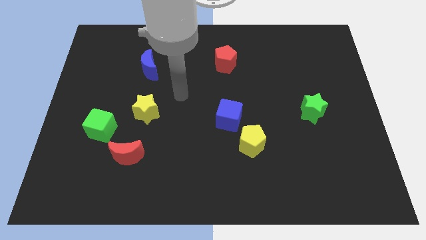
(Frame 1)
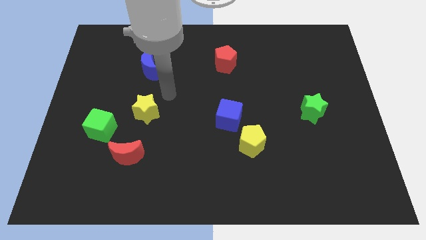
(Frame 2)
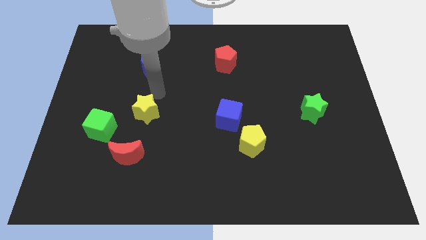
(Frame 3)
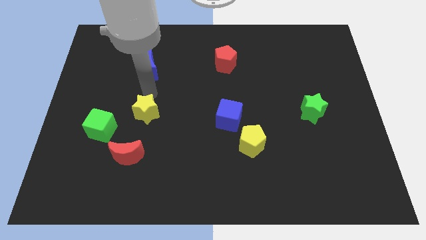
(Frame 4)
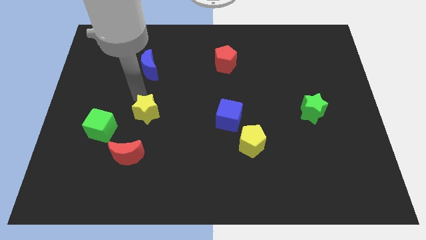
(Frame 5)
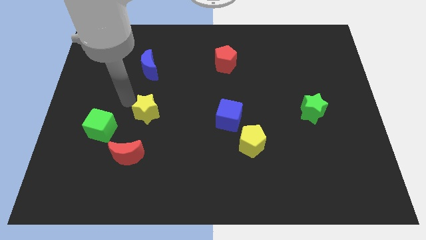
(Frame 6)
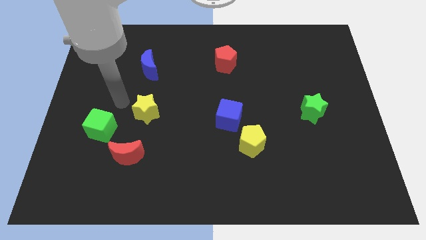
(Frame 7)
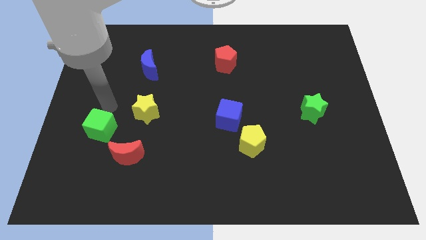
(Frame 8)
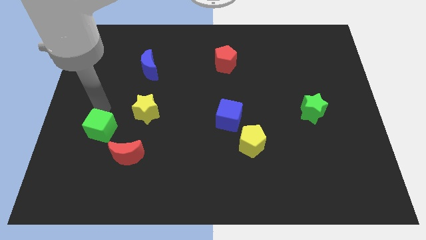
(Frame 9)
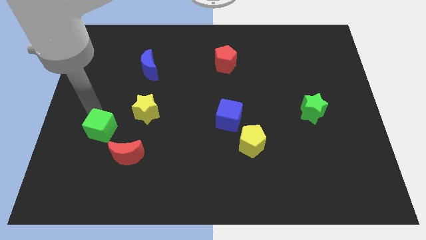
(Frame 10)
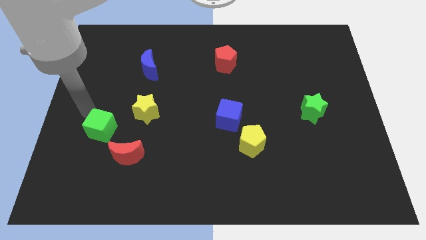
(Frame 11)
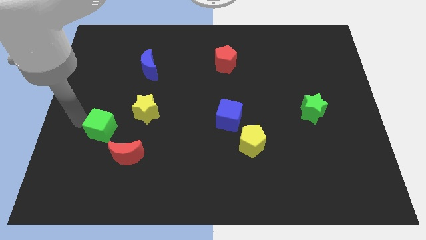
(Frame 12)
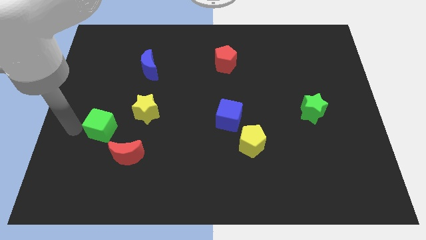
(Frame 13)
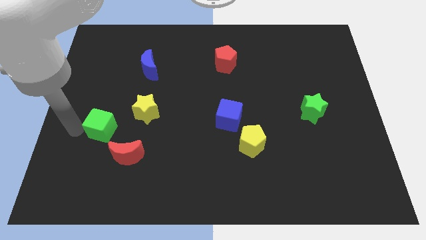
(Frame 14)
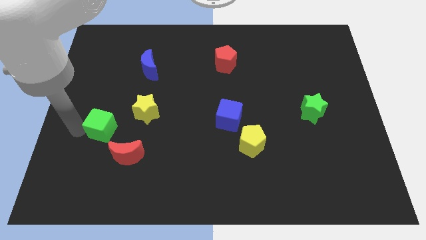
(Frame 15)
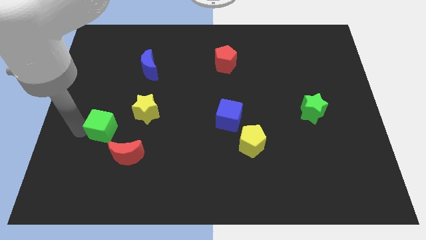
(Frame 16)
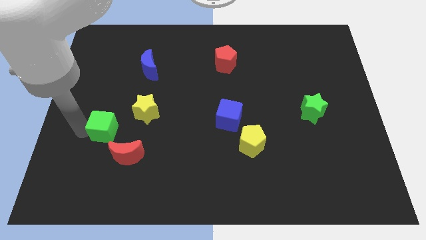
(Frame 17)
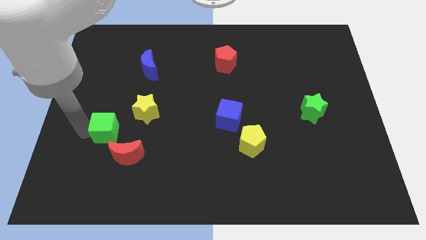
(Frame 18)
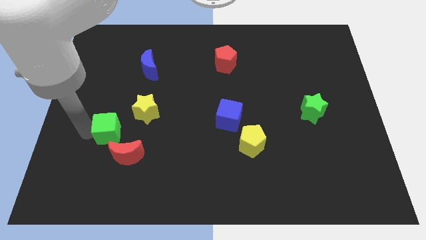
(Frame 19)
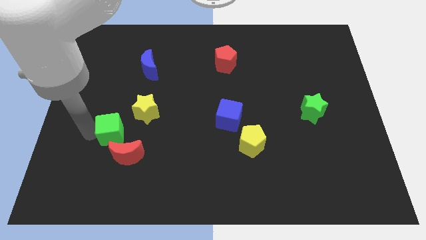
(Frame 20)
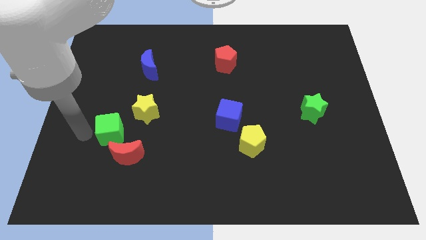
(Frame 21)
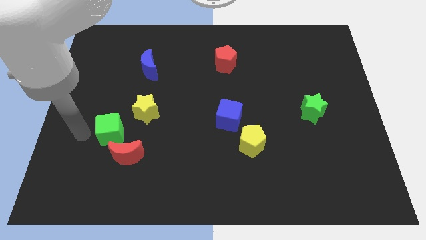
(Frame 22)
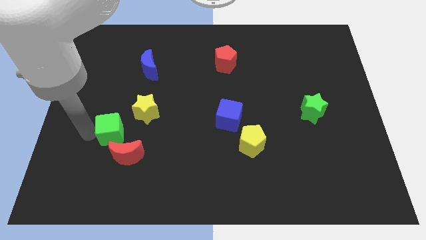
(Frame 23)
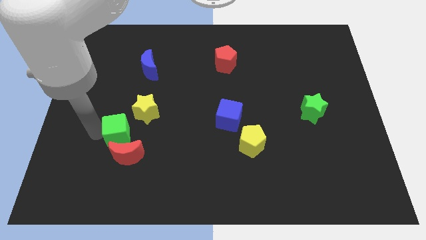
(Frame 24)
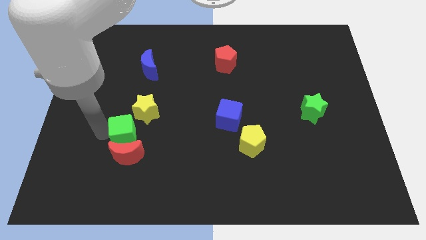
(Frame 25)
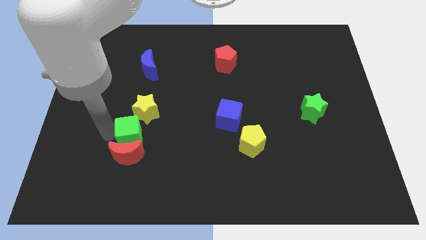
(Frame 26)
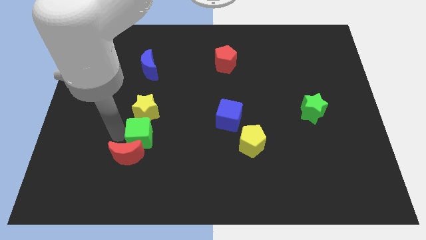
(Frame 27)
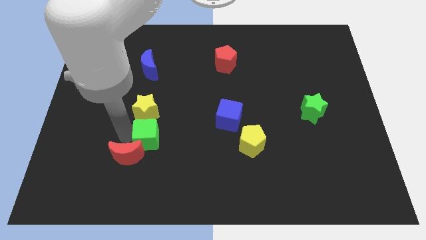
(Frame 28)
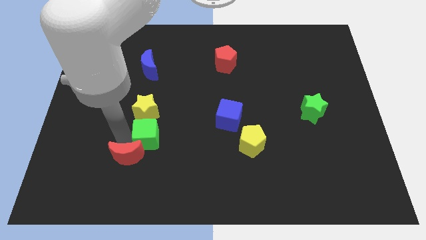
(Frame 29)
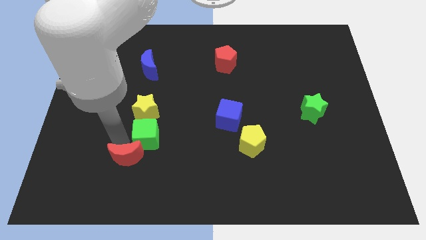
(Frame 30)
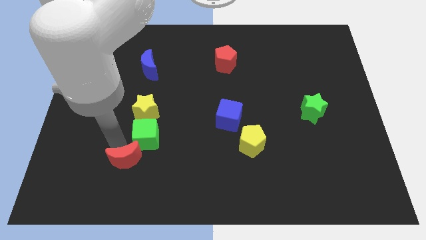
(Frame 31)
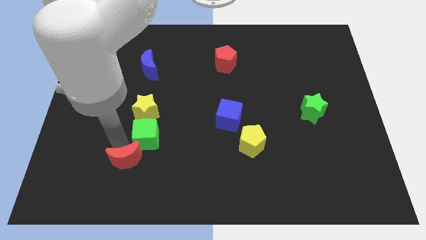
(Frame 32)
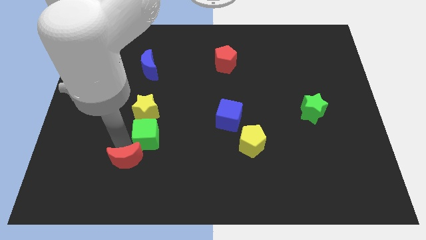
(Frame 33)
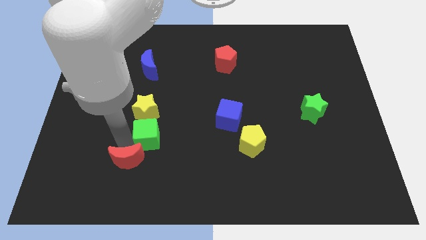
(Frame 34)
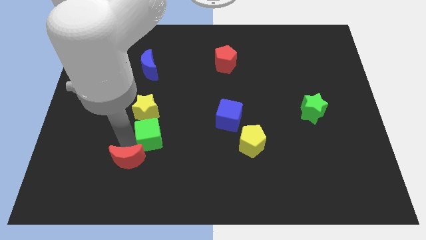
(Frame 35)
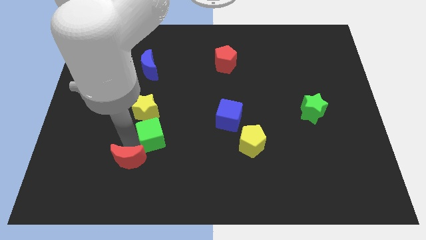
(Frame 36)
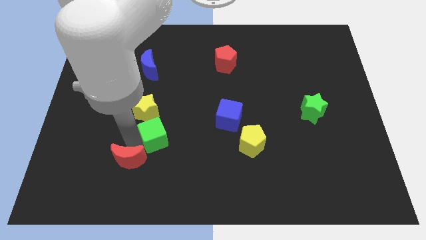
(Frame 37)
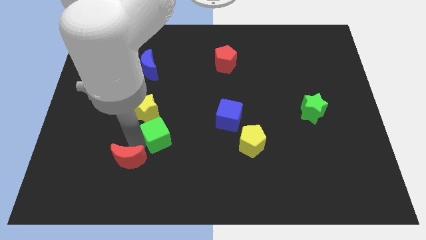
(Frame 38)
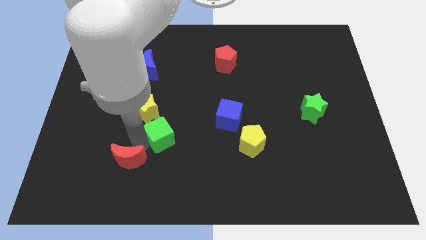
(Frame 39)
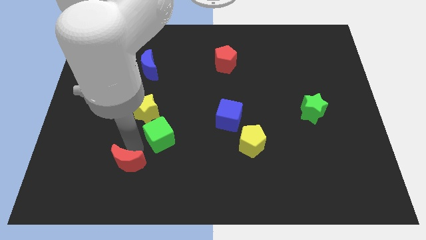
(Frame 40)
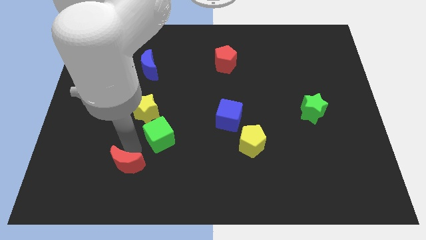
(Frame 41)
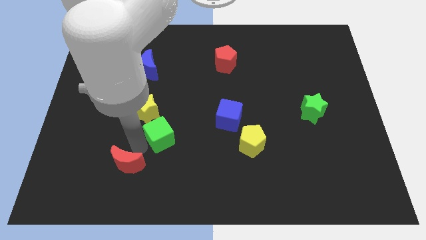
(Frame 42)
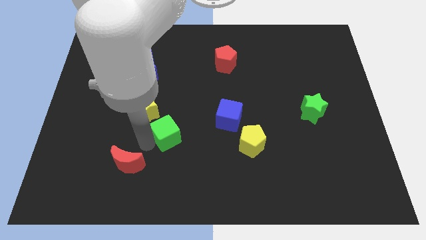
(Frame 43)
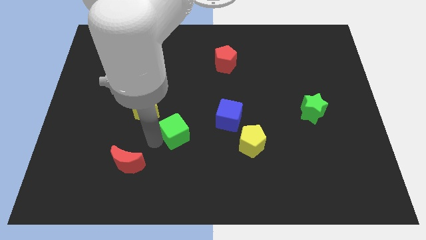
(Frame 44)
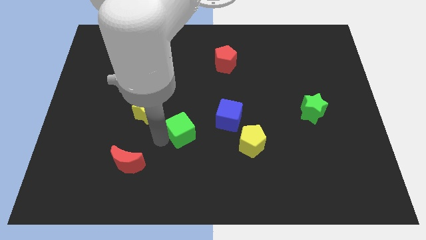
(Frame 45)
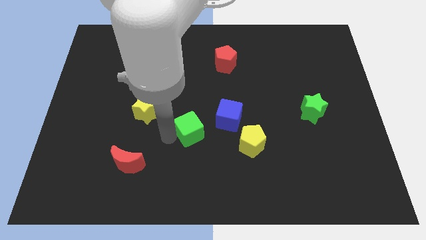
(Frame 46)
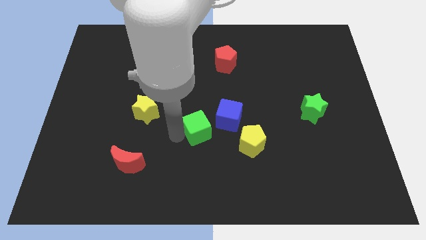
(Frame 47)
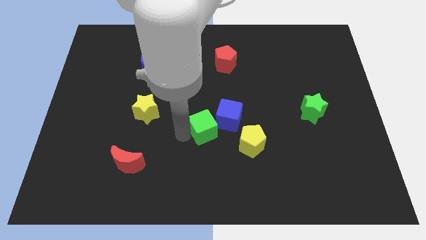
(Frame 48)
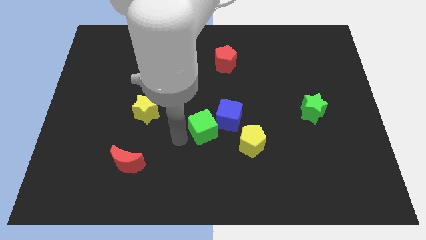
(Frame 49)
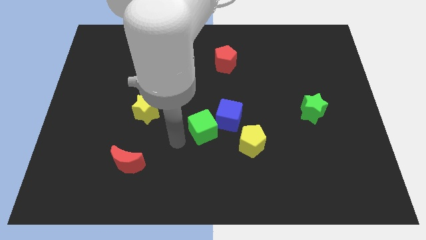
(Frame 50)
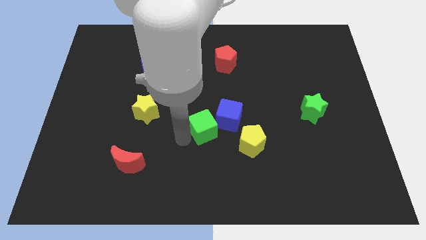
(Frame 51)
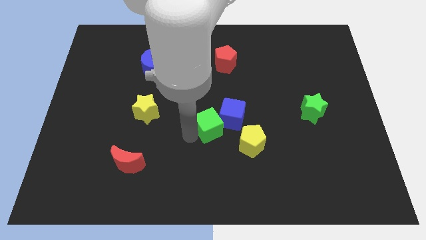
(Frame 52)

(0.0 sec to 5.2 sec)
put the green cube towards the blue cube

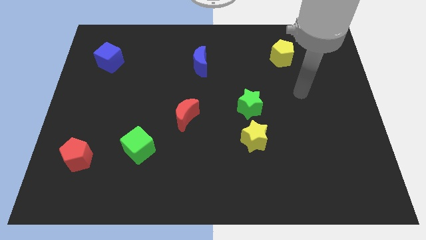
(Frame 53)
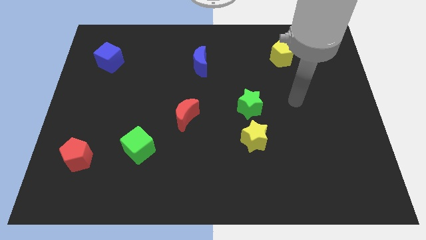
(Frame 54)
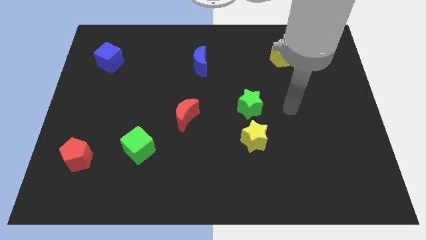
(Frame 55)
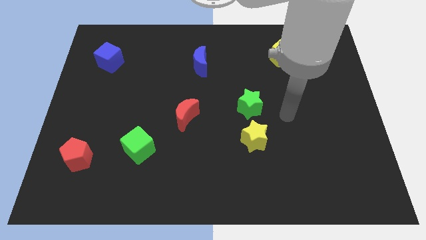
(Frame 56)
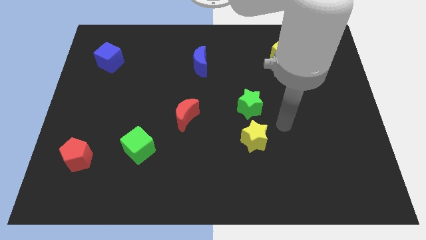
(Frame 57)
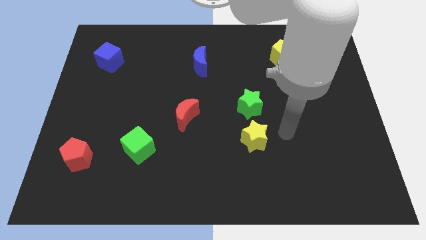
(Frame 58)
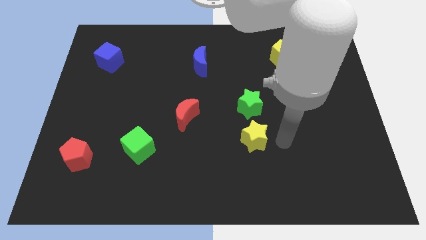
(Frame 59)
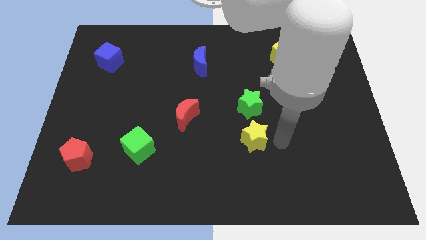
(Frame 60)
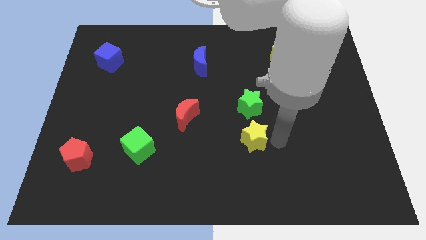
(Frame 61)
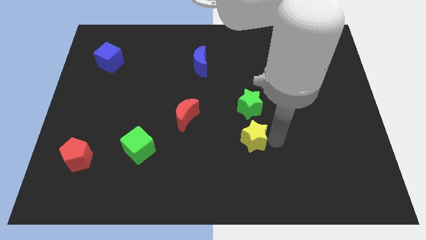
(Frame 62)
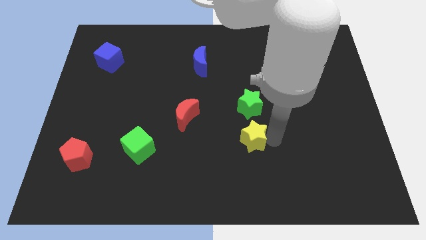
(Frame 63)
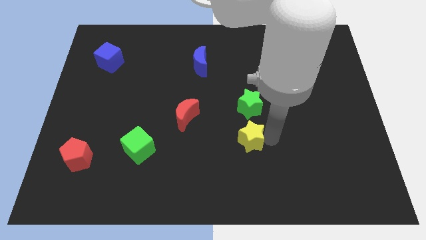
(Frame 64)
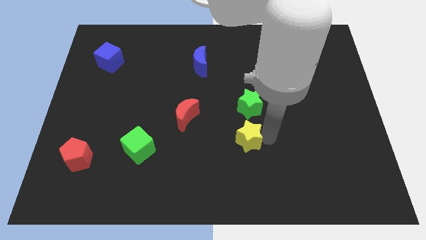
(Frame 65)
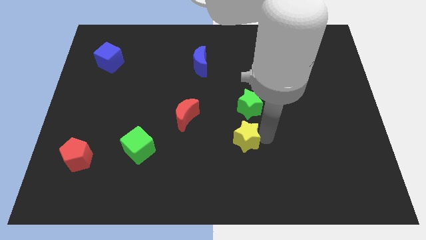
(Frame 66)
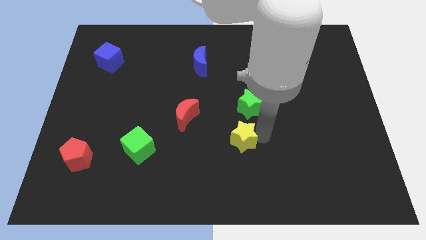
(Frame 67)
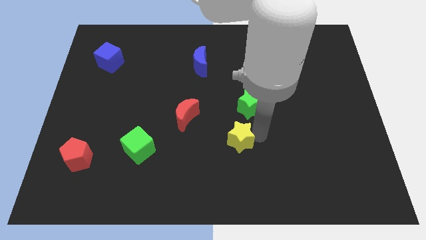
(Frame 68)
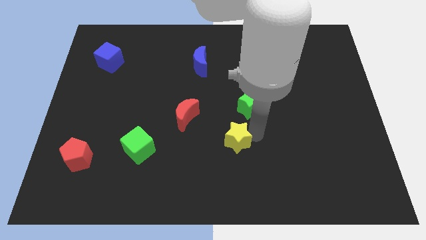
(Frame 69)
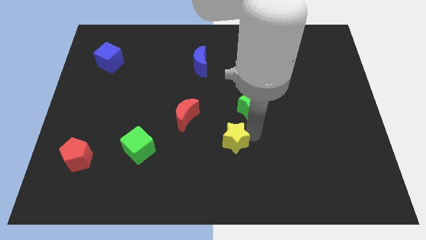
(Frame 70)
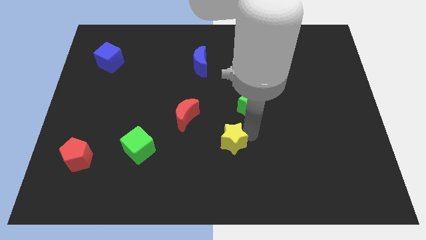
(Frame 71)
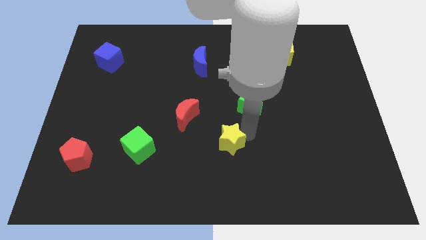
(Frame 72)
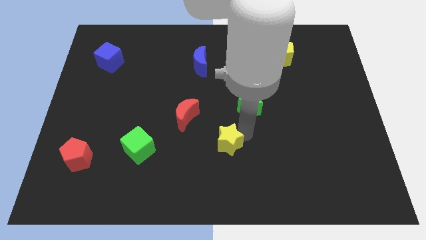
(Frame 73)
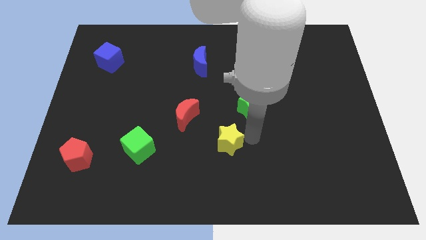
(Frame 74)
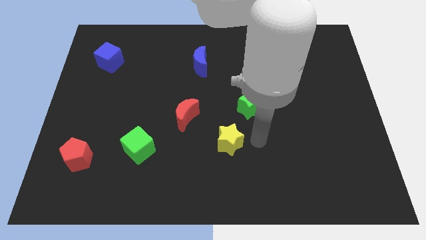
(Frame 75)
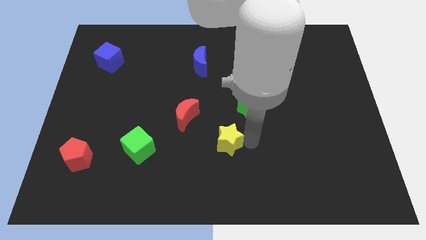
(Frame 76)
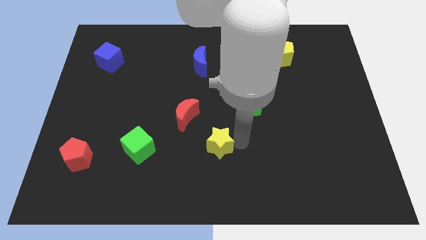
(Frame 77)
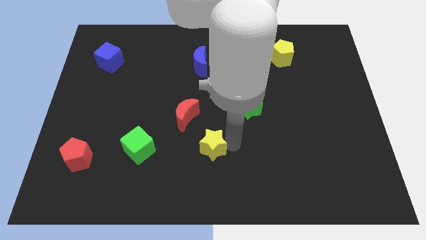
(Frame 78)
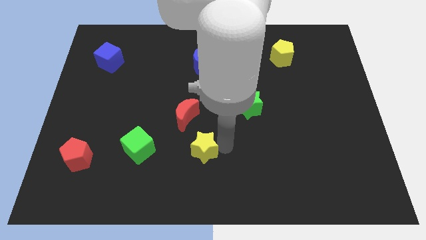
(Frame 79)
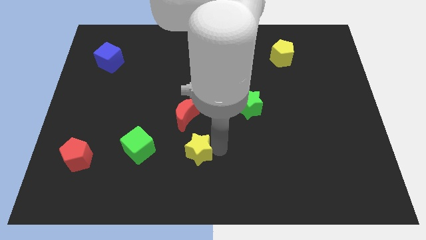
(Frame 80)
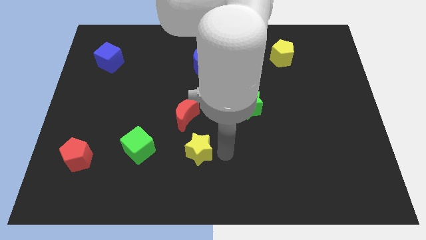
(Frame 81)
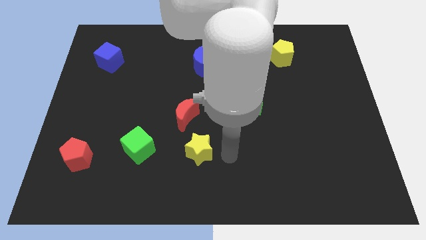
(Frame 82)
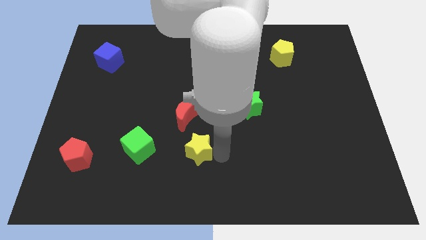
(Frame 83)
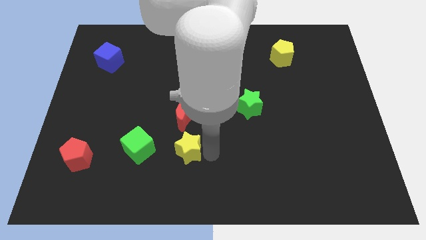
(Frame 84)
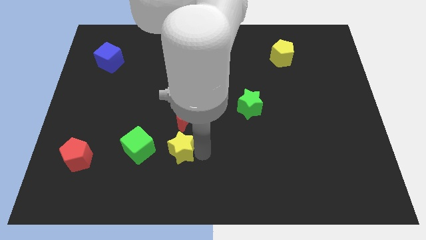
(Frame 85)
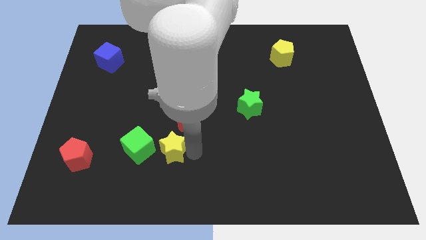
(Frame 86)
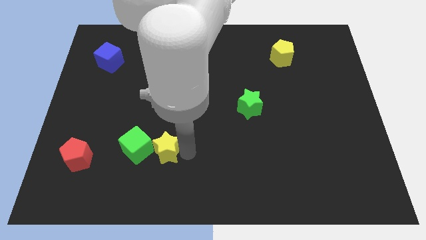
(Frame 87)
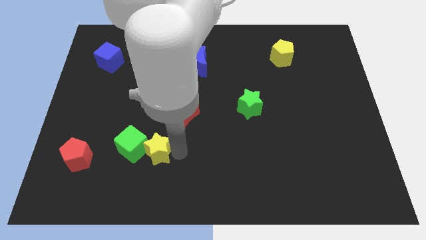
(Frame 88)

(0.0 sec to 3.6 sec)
push the yellow star close to the green cube
